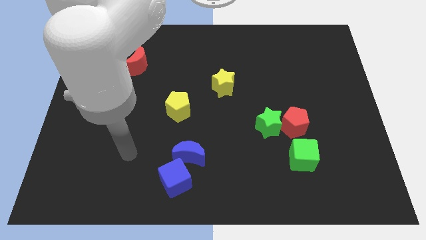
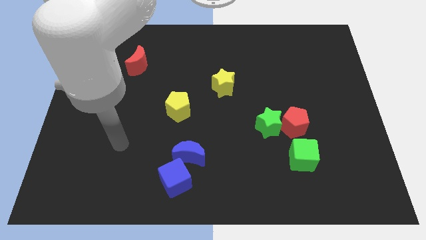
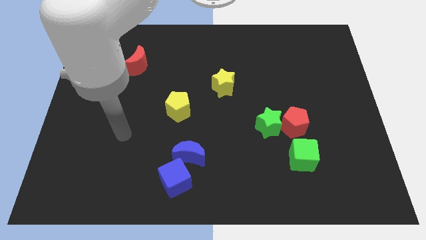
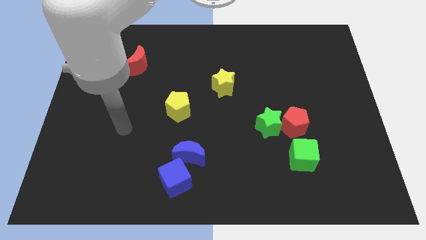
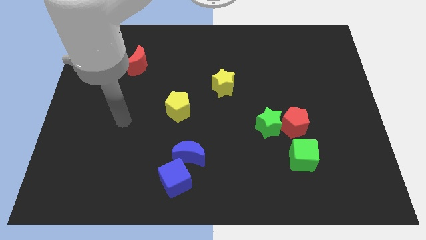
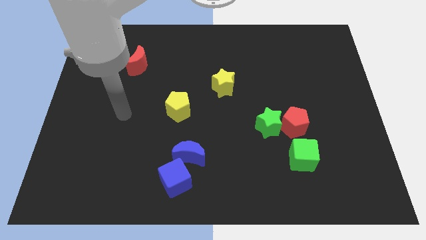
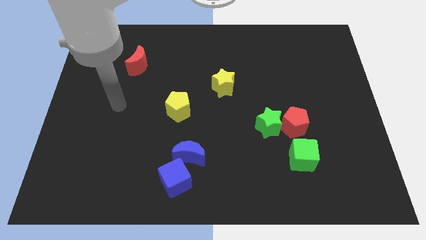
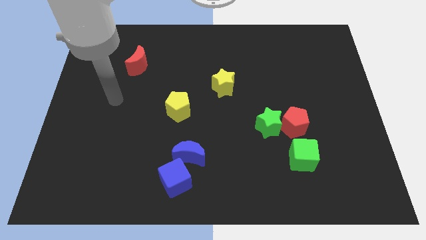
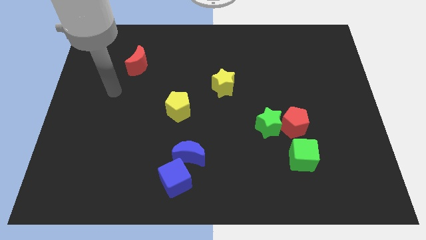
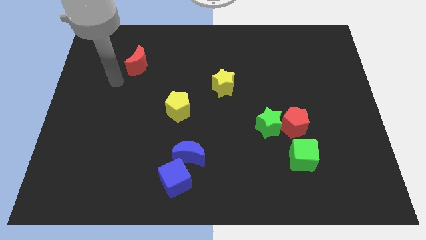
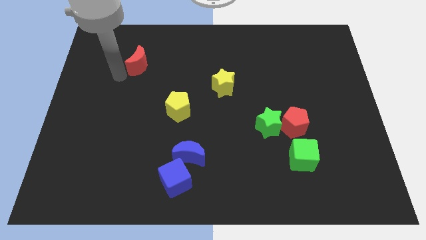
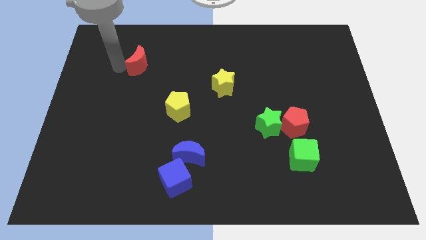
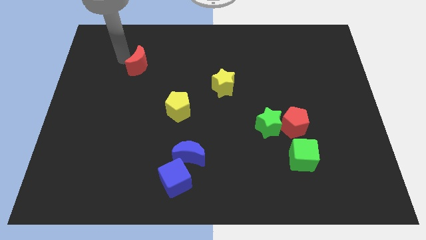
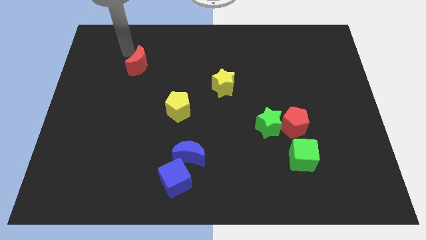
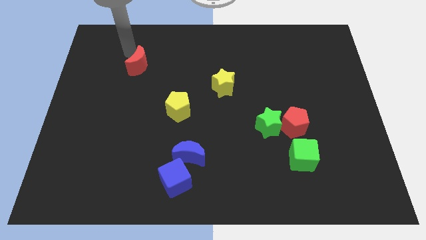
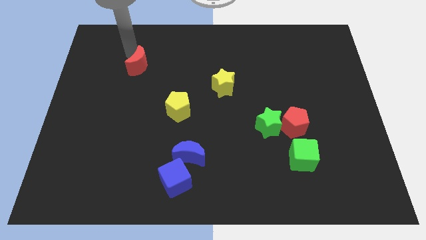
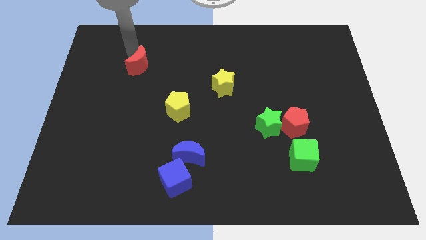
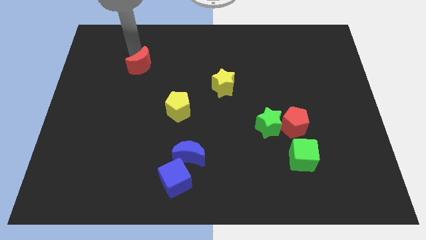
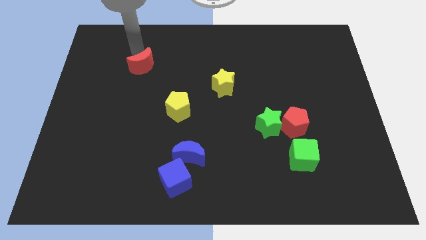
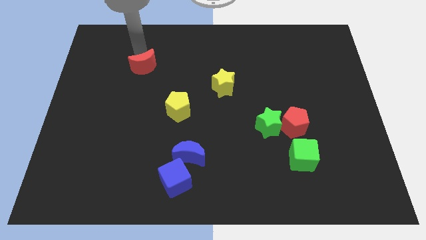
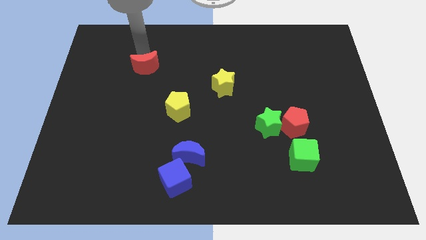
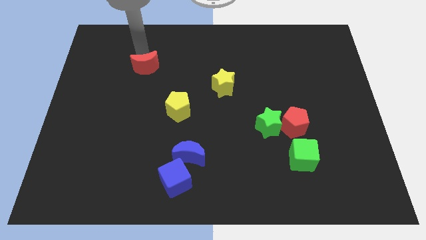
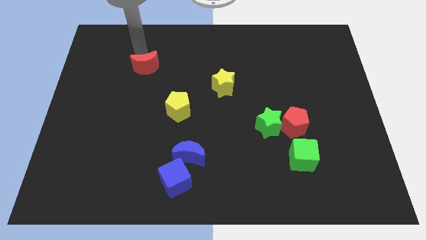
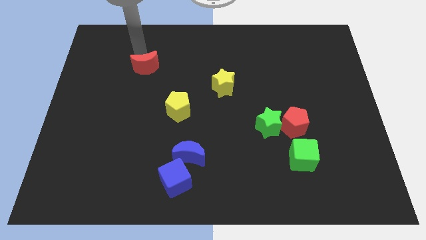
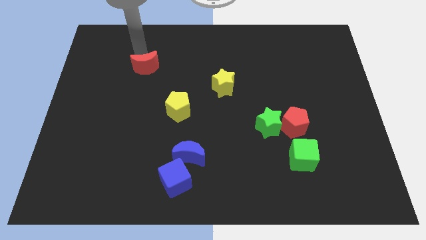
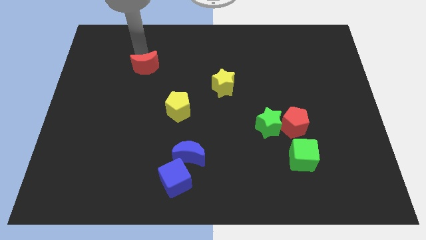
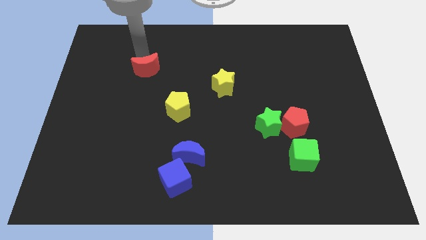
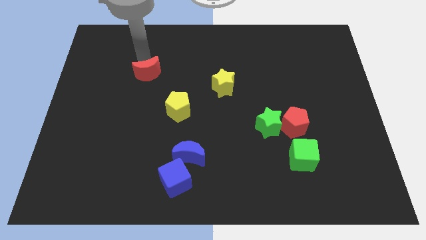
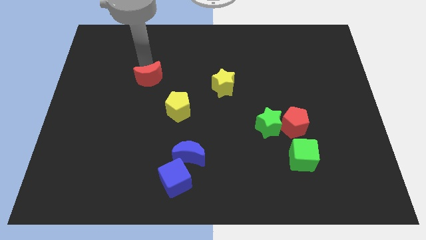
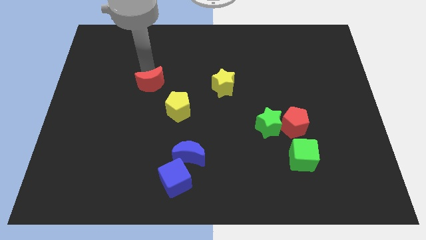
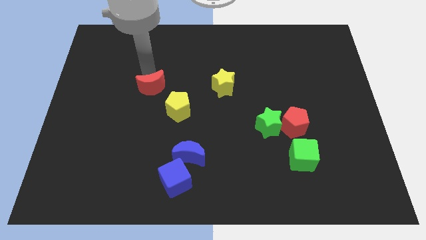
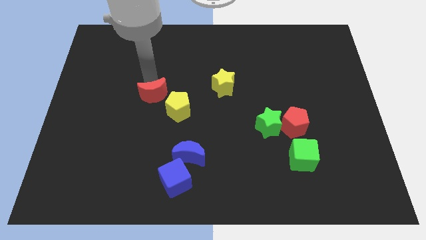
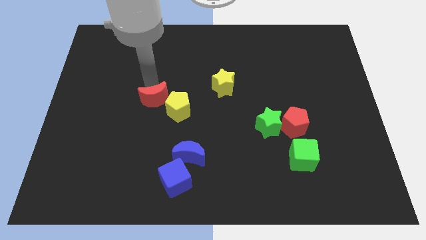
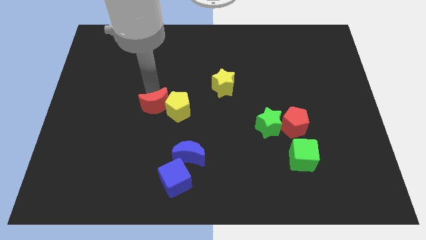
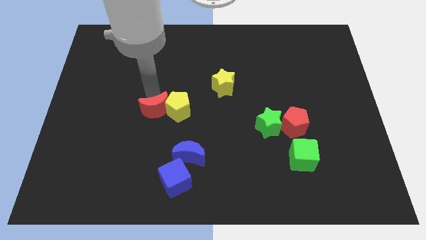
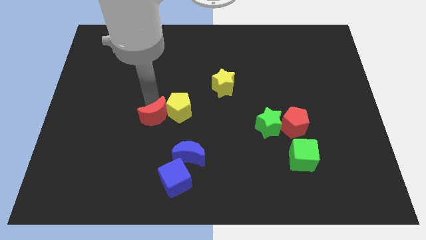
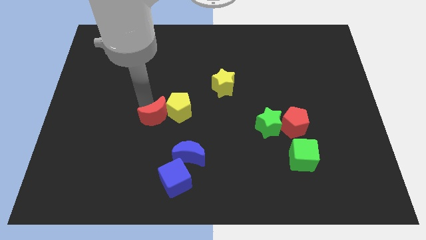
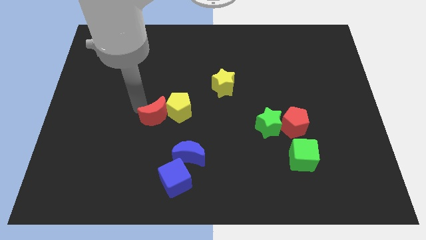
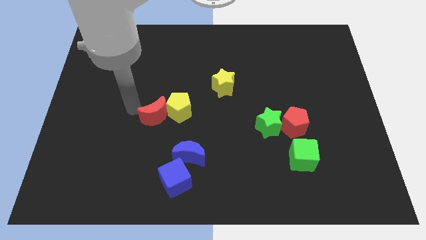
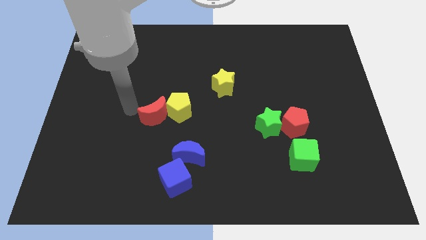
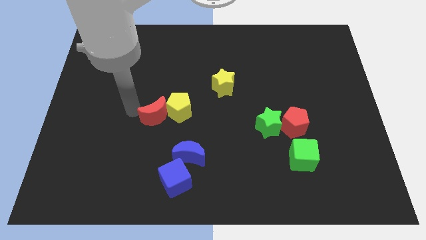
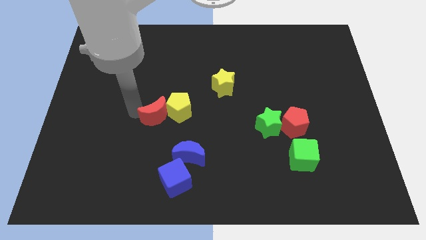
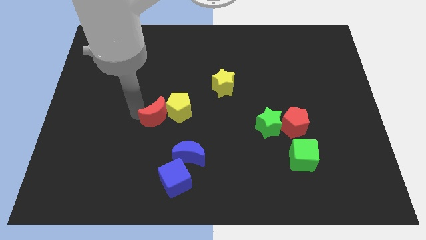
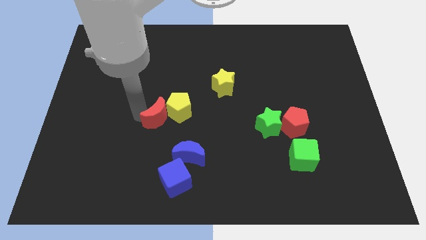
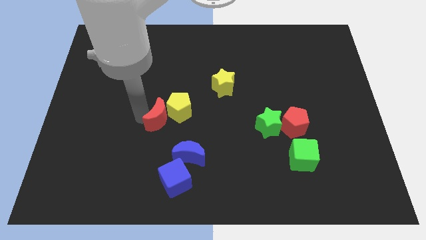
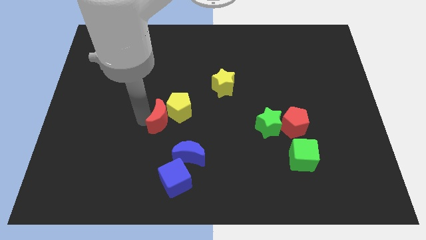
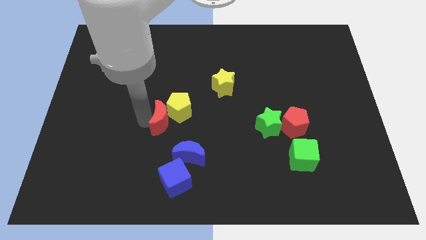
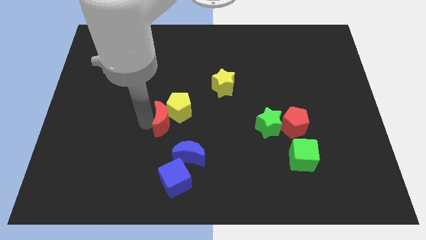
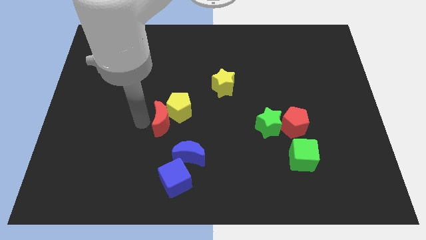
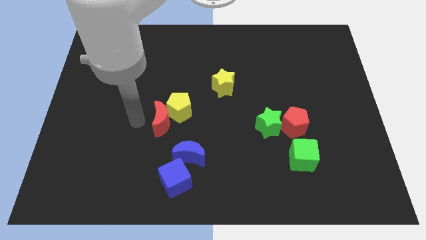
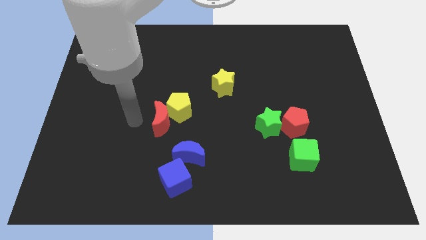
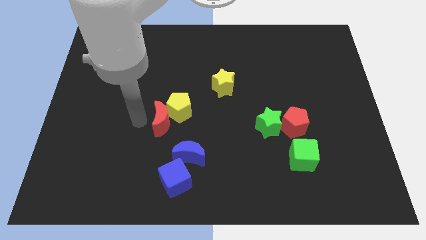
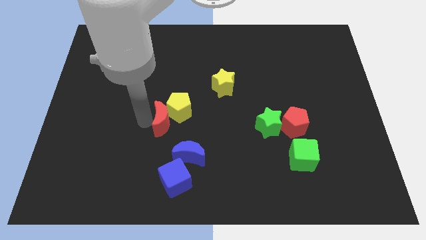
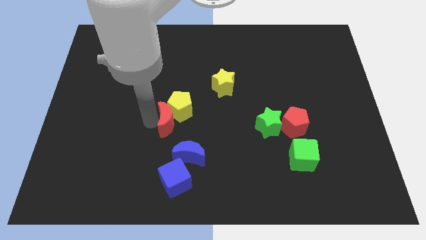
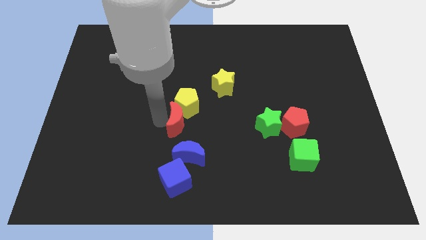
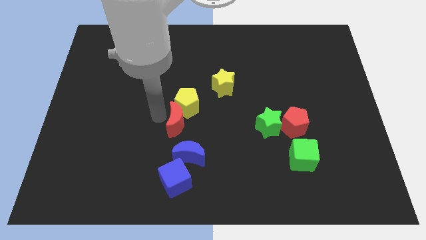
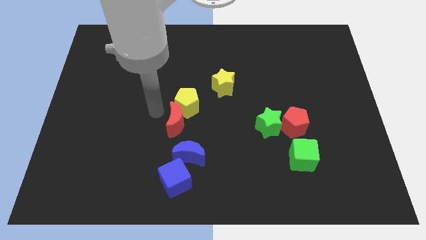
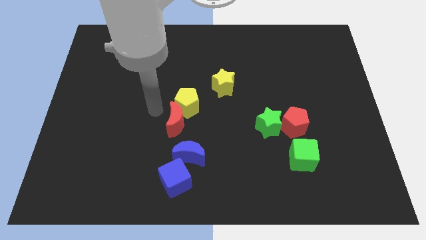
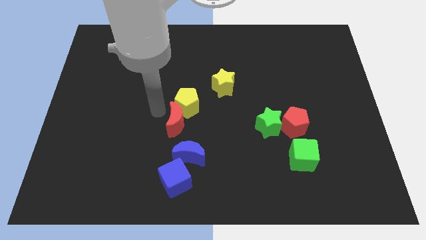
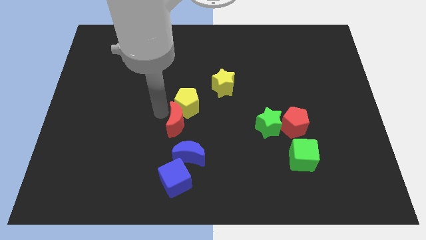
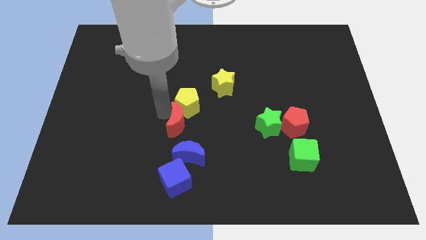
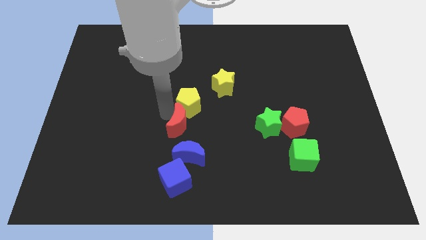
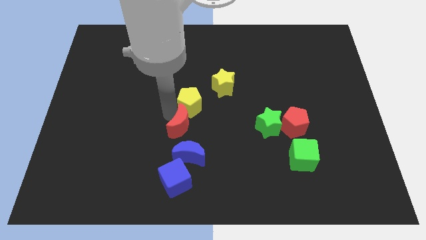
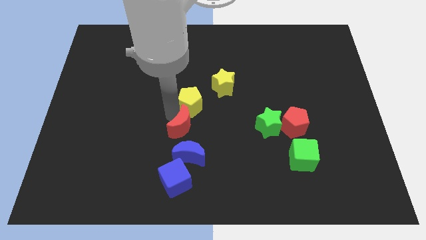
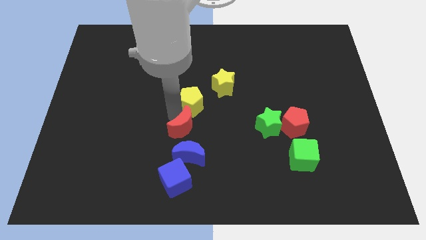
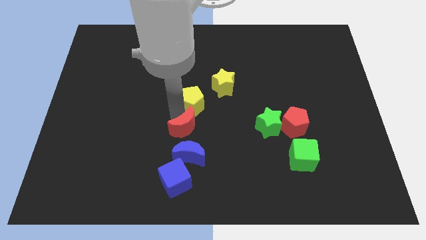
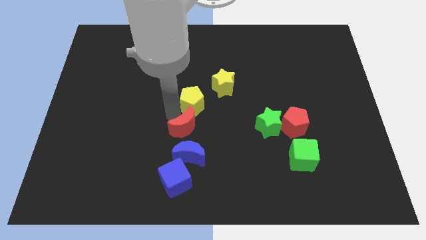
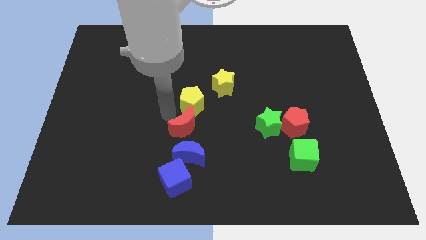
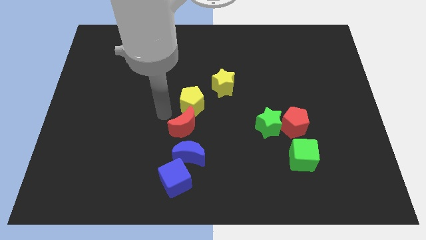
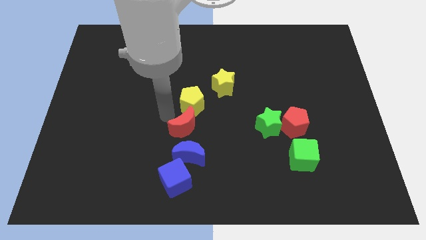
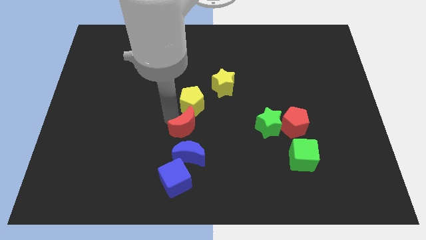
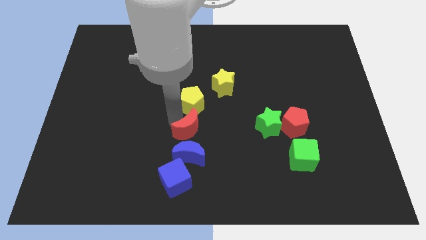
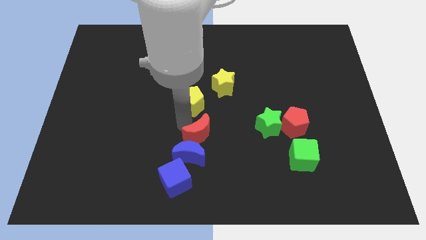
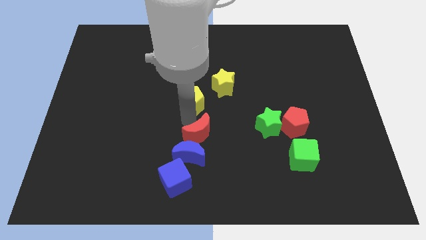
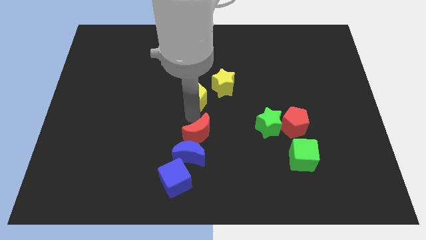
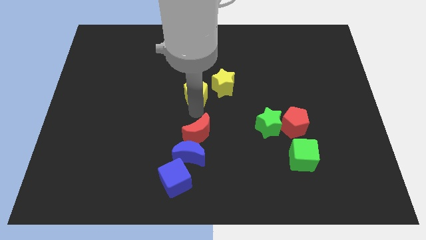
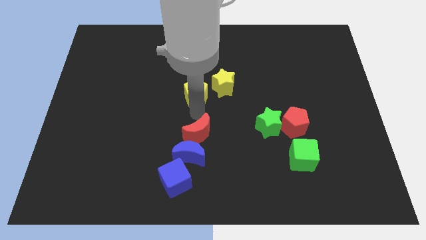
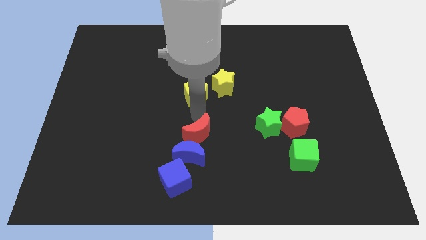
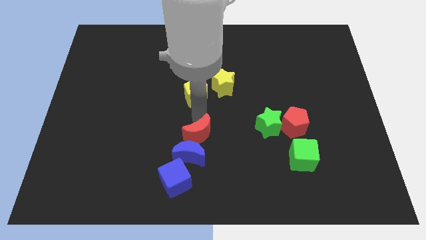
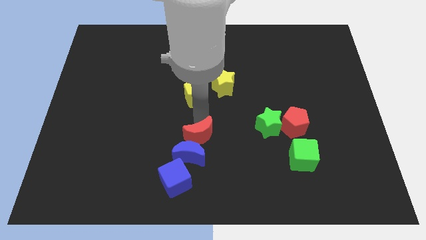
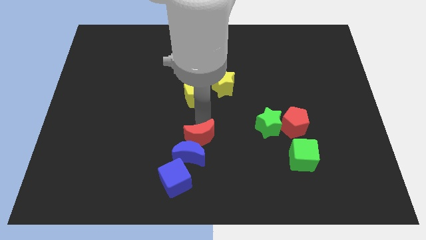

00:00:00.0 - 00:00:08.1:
put the red moon to the top right side of the blue cube
